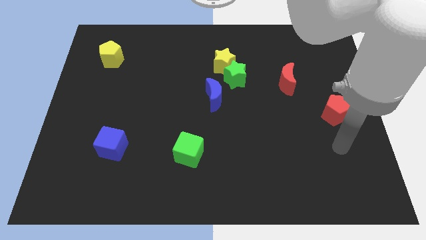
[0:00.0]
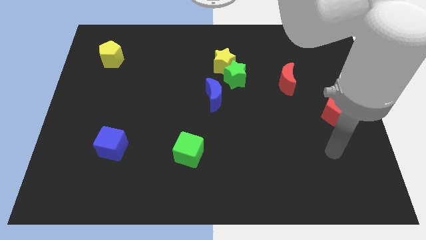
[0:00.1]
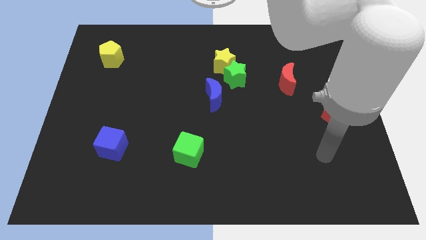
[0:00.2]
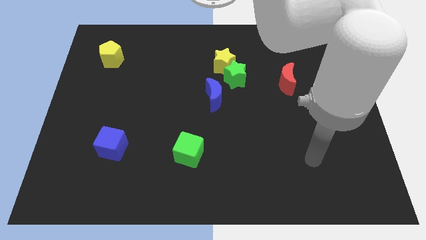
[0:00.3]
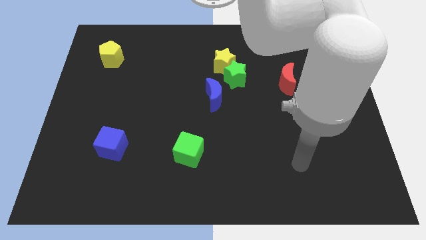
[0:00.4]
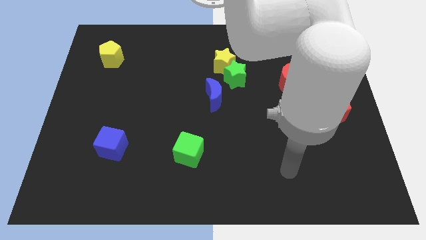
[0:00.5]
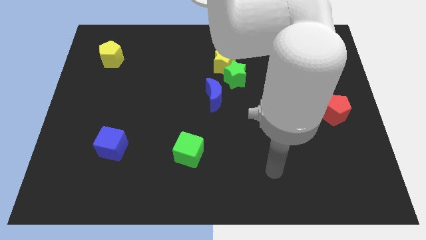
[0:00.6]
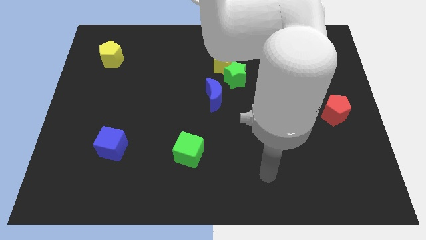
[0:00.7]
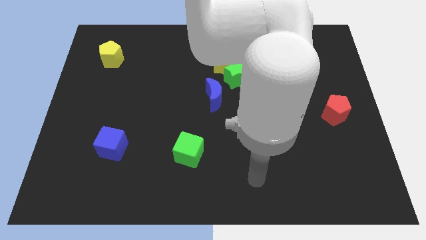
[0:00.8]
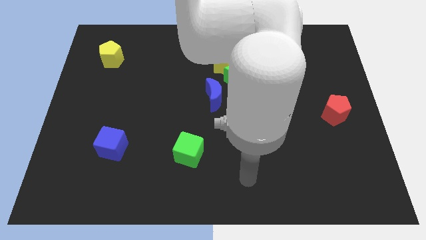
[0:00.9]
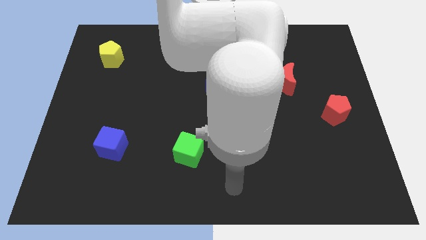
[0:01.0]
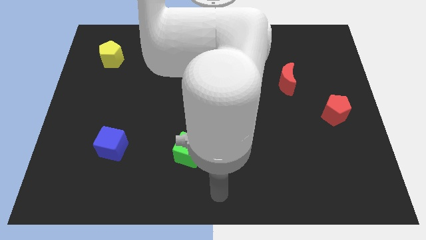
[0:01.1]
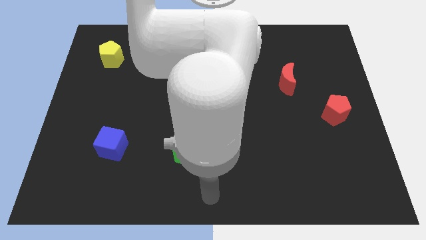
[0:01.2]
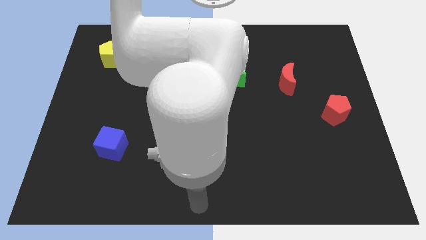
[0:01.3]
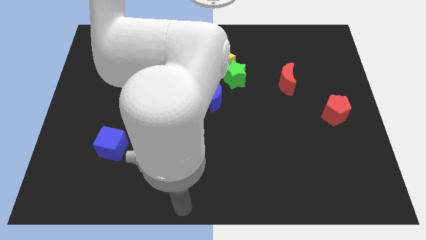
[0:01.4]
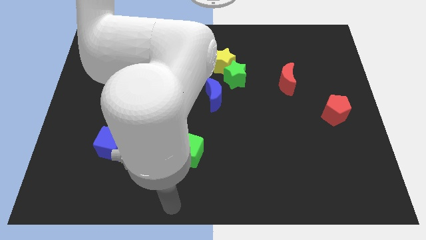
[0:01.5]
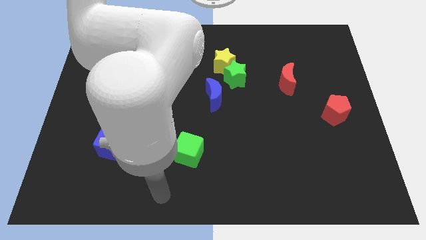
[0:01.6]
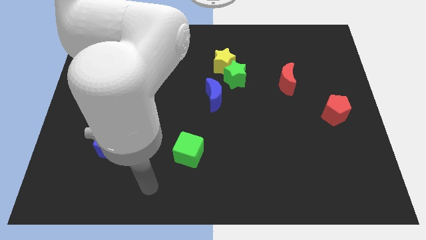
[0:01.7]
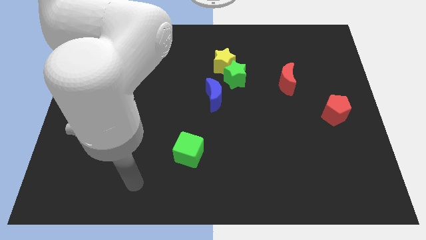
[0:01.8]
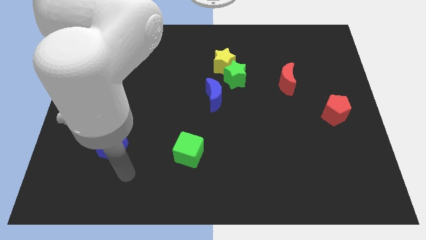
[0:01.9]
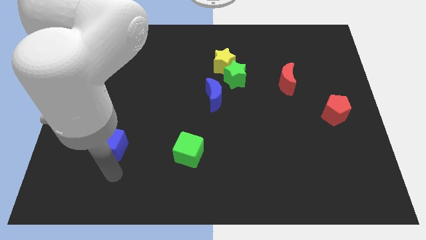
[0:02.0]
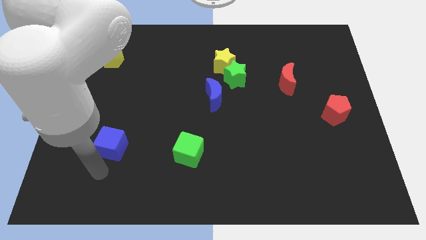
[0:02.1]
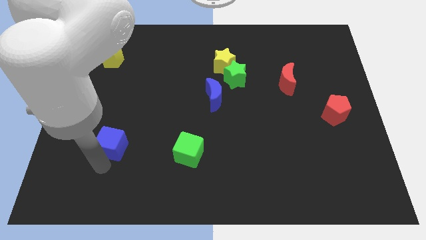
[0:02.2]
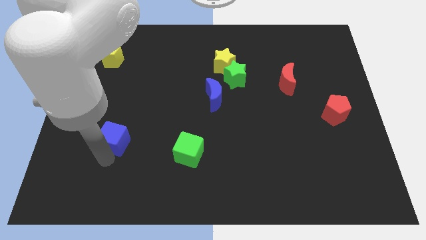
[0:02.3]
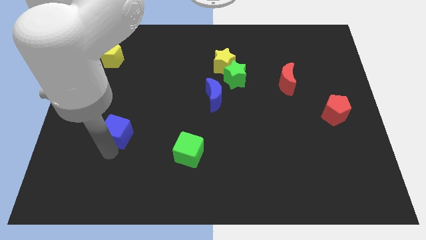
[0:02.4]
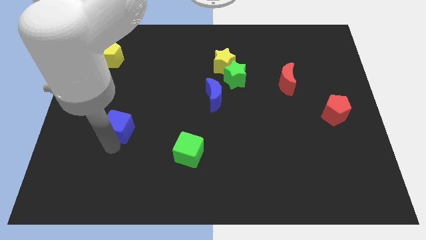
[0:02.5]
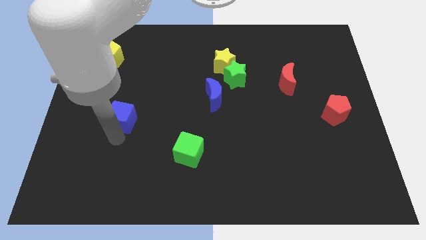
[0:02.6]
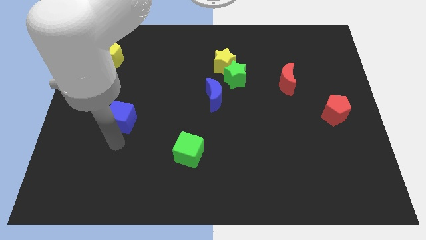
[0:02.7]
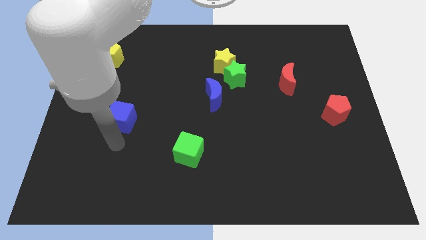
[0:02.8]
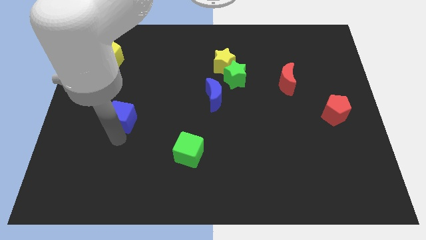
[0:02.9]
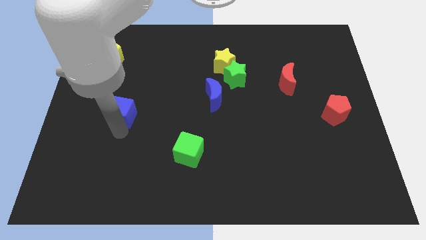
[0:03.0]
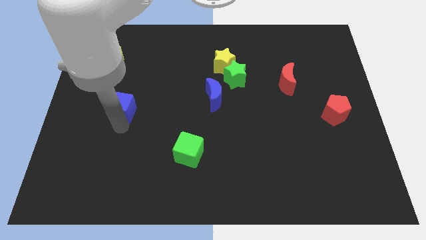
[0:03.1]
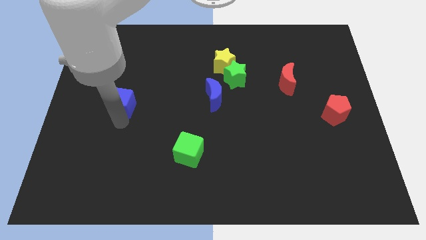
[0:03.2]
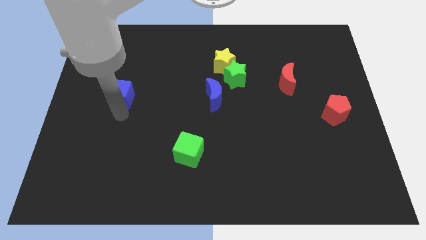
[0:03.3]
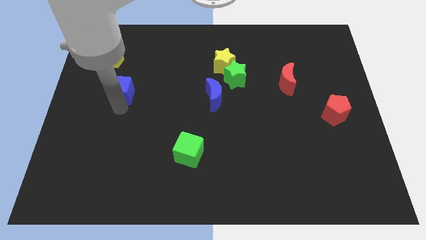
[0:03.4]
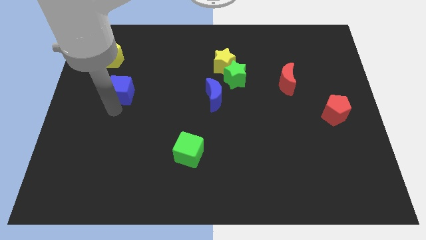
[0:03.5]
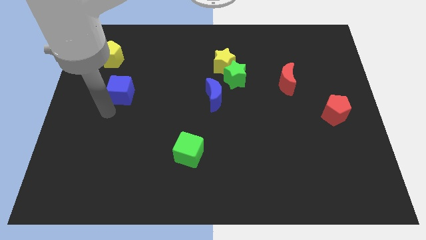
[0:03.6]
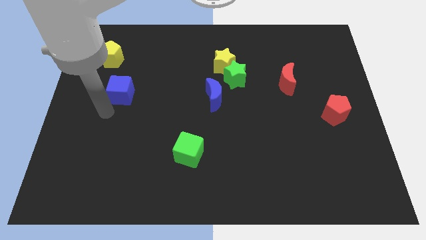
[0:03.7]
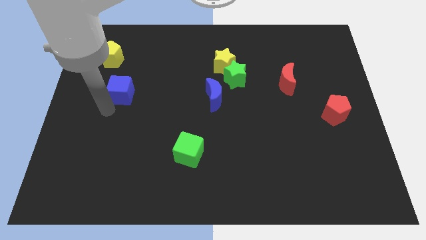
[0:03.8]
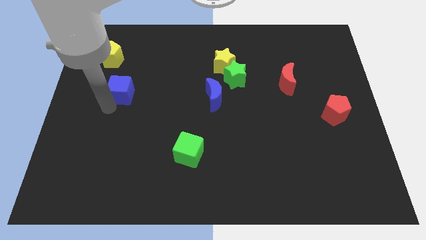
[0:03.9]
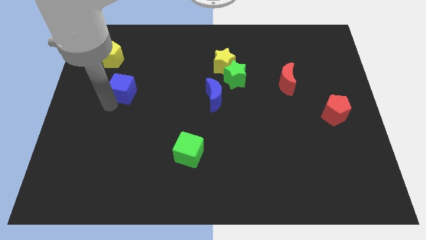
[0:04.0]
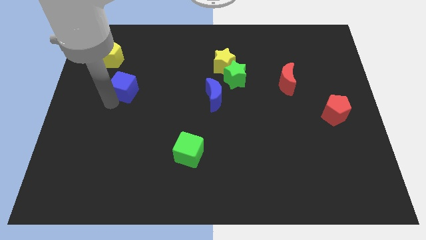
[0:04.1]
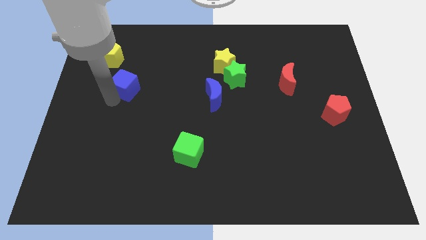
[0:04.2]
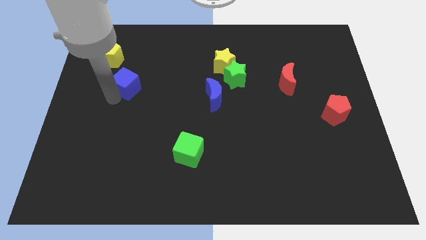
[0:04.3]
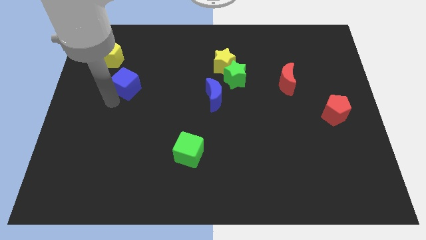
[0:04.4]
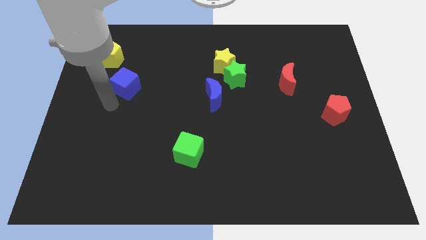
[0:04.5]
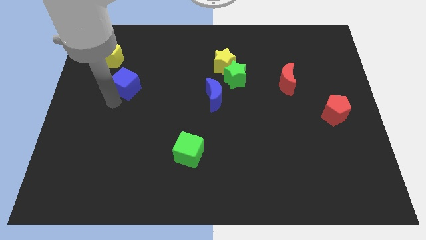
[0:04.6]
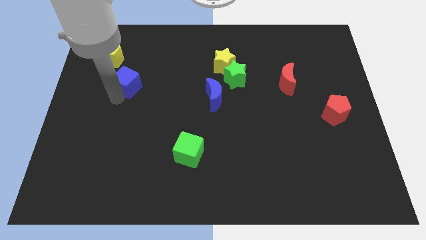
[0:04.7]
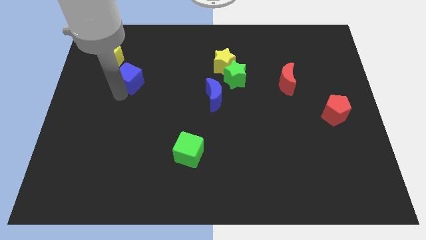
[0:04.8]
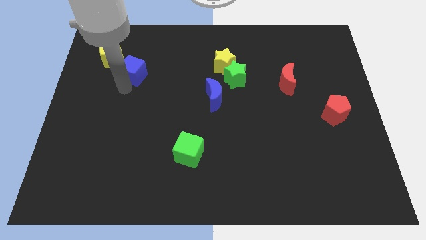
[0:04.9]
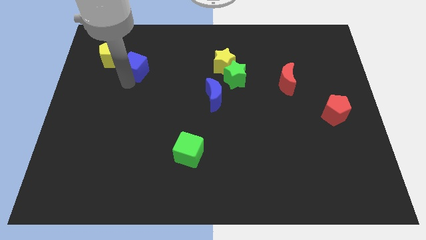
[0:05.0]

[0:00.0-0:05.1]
put the blue cube to the right of the yellow pentagon

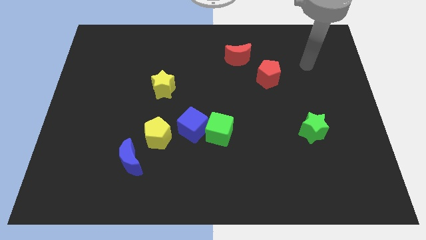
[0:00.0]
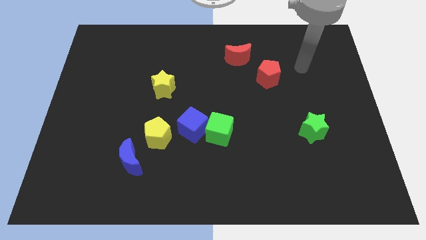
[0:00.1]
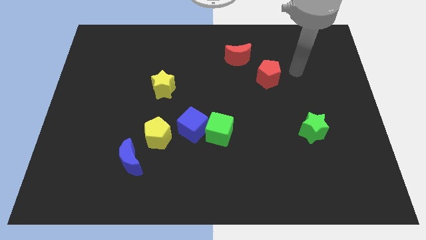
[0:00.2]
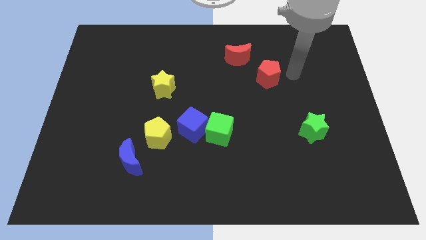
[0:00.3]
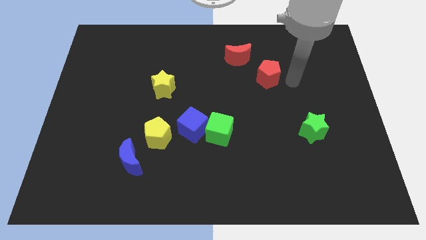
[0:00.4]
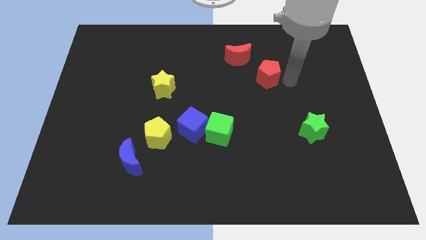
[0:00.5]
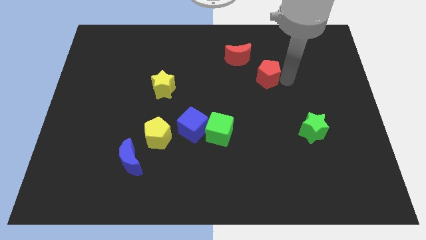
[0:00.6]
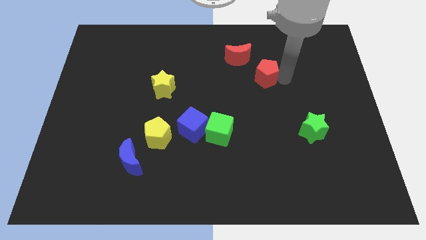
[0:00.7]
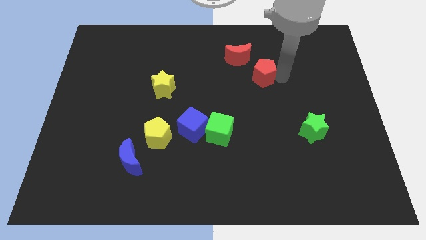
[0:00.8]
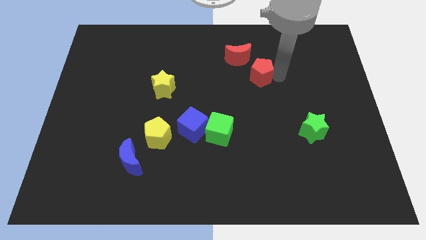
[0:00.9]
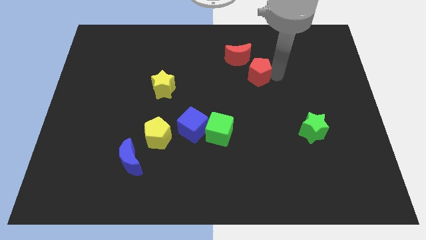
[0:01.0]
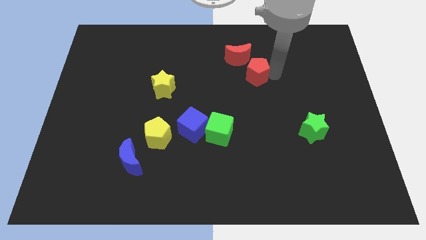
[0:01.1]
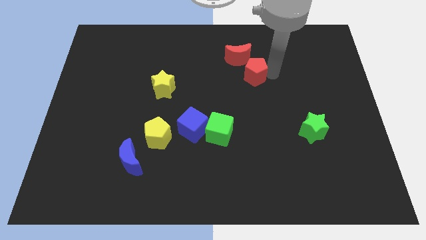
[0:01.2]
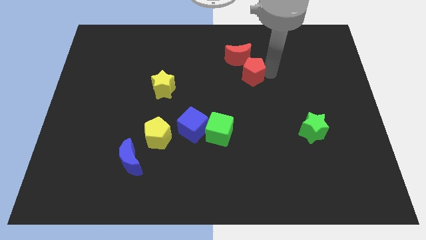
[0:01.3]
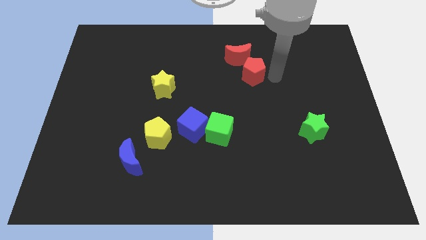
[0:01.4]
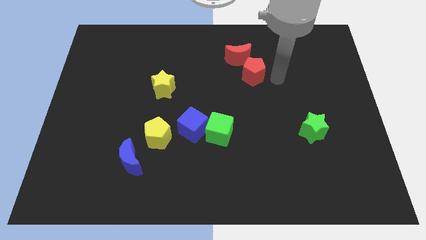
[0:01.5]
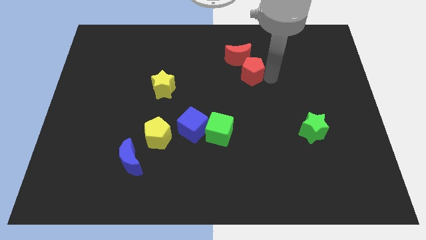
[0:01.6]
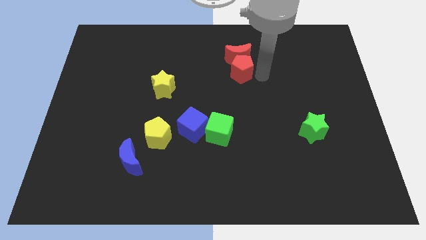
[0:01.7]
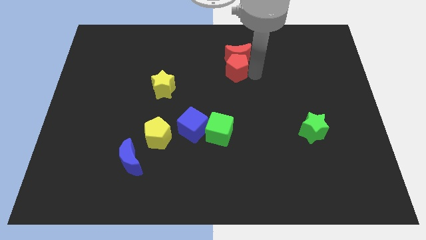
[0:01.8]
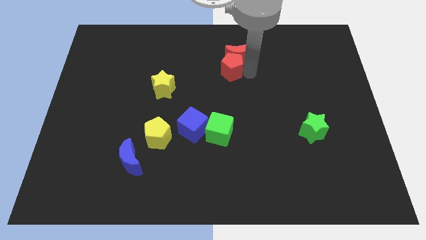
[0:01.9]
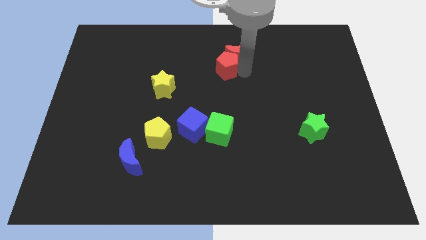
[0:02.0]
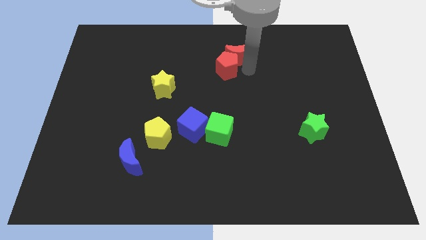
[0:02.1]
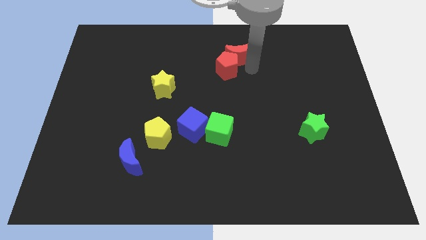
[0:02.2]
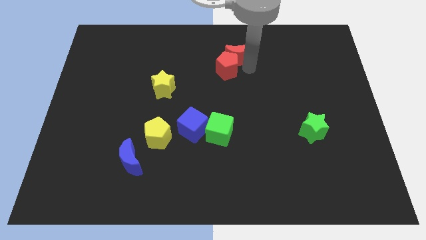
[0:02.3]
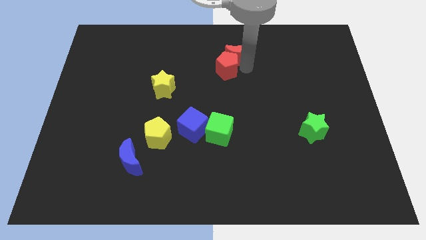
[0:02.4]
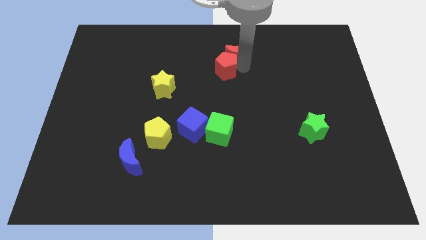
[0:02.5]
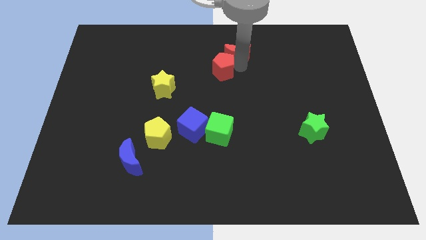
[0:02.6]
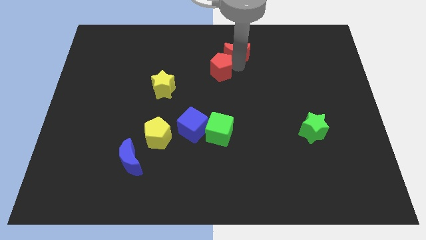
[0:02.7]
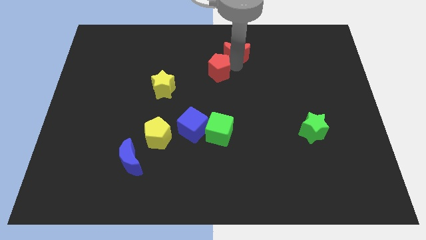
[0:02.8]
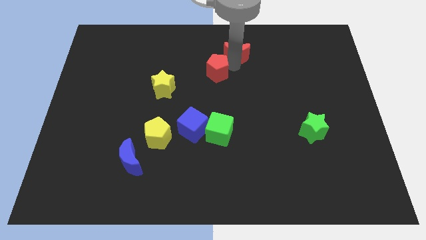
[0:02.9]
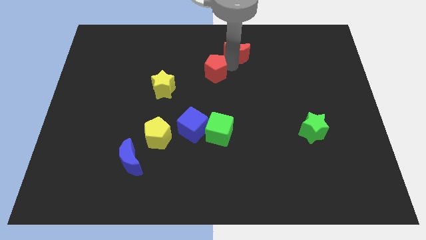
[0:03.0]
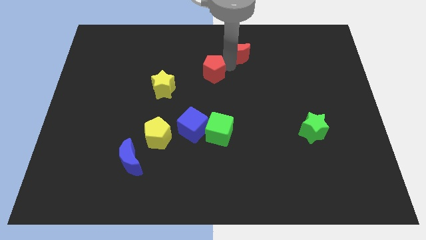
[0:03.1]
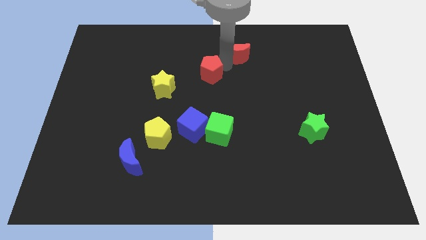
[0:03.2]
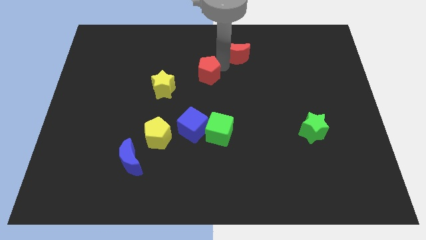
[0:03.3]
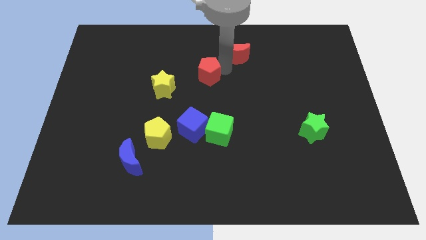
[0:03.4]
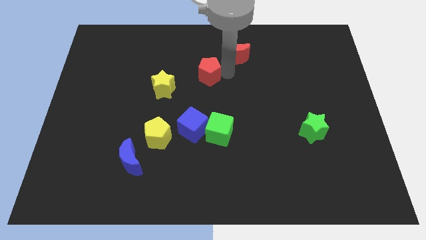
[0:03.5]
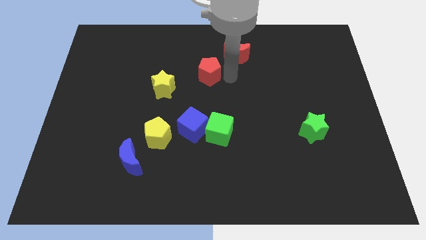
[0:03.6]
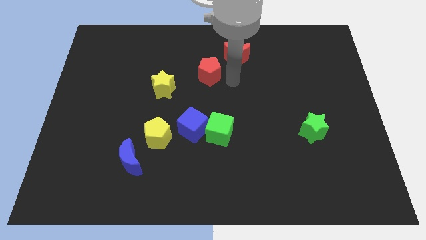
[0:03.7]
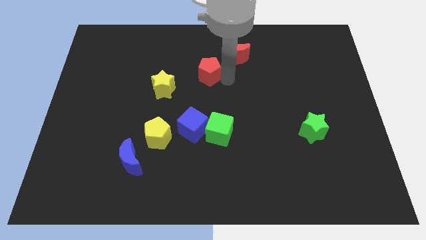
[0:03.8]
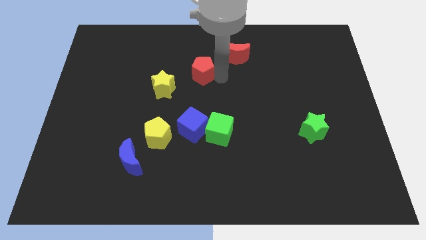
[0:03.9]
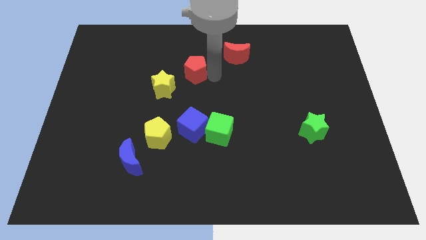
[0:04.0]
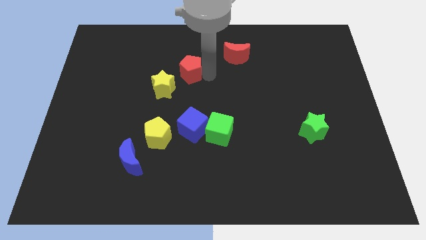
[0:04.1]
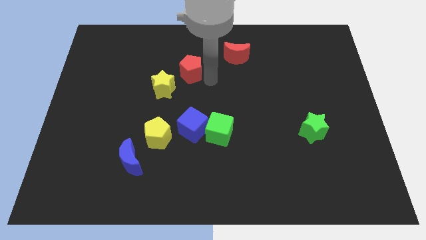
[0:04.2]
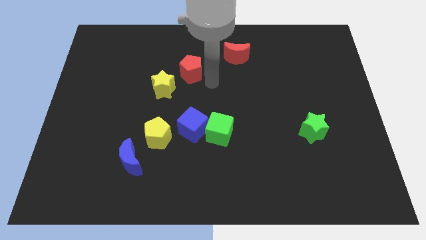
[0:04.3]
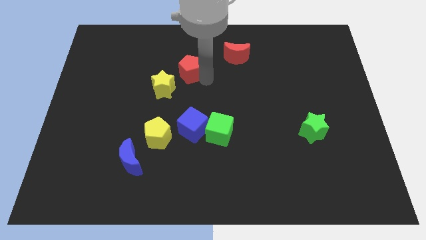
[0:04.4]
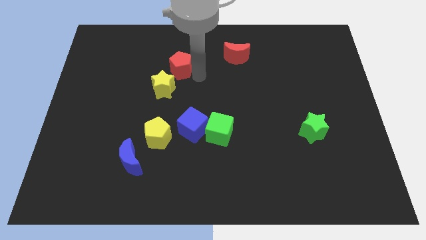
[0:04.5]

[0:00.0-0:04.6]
push the red pentagon to the top side of the yellow star
